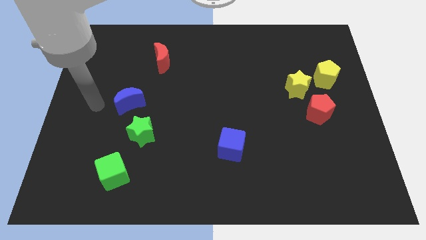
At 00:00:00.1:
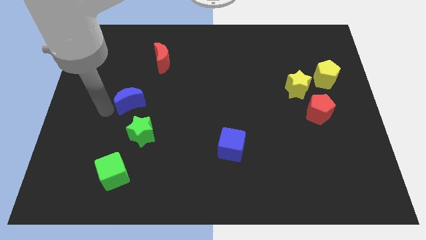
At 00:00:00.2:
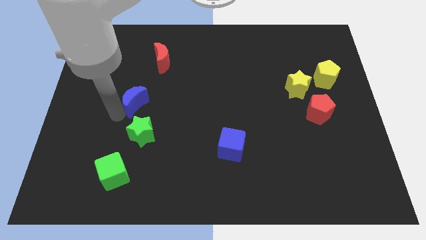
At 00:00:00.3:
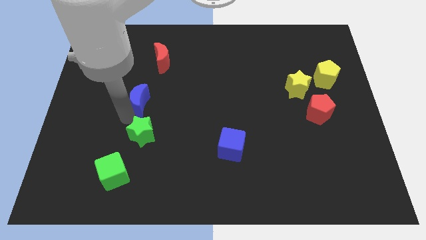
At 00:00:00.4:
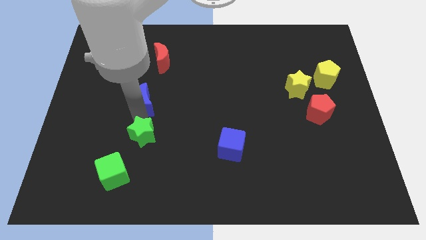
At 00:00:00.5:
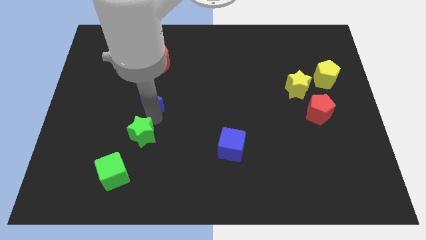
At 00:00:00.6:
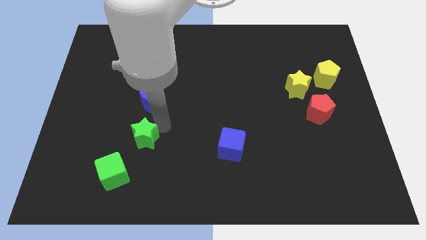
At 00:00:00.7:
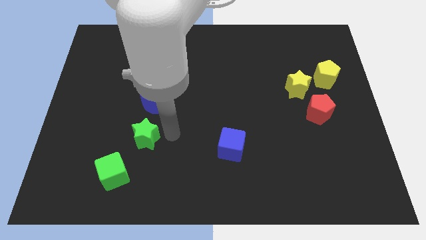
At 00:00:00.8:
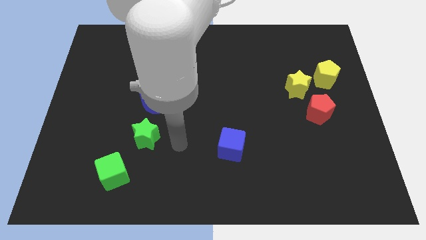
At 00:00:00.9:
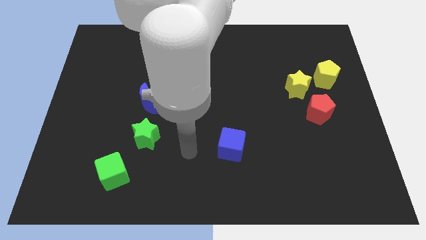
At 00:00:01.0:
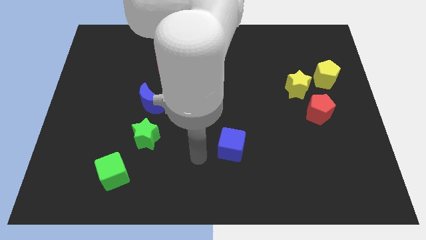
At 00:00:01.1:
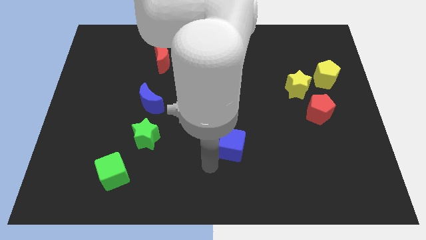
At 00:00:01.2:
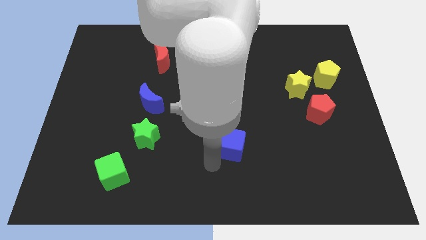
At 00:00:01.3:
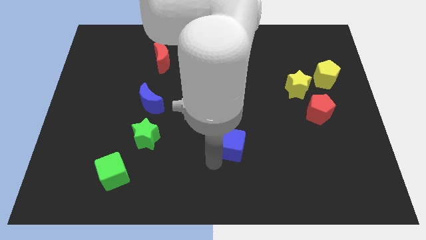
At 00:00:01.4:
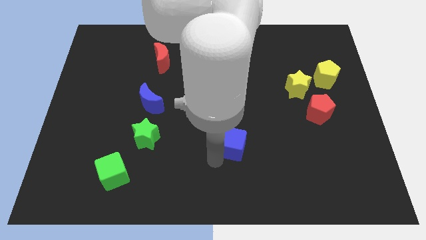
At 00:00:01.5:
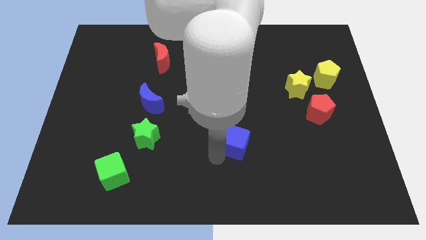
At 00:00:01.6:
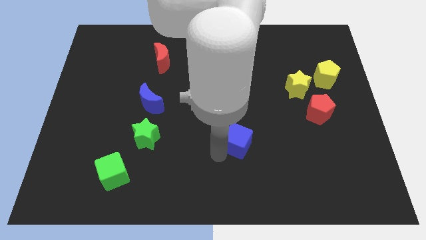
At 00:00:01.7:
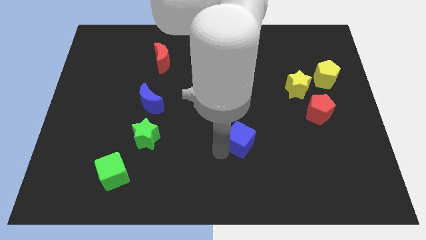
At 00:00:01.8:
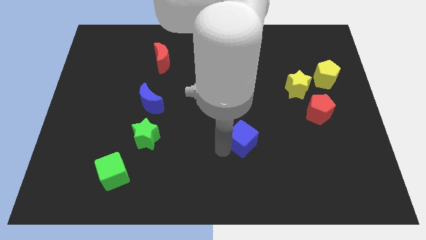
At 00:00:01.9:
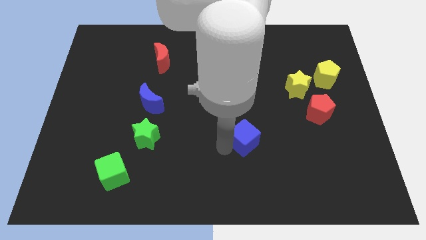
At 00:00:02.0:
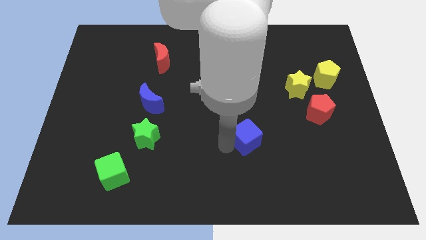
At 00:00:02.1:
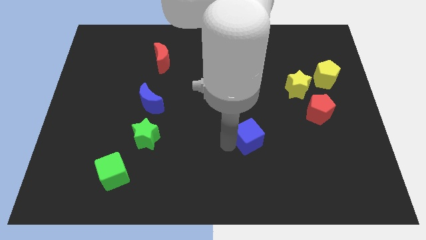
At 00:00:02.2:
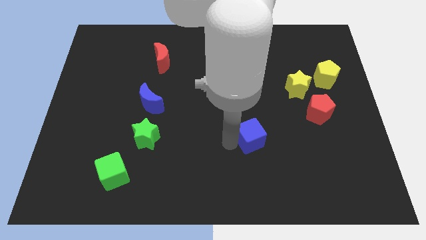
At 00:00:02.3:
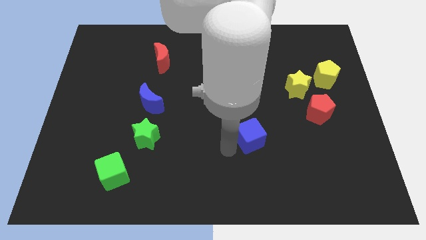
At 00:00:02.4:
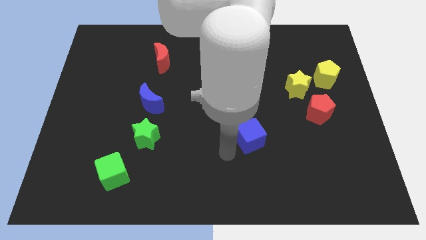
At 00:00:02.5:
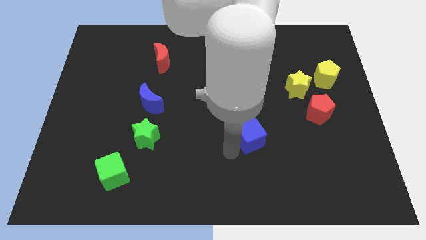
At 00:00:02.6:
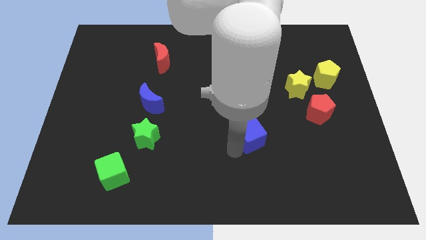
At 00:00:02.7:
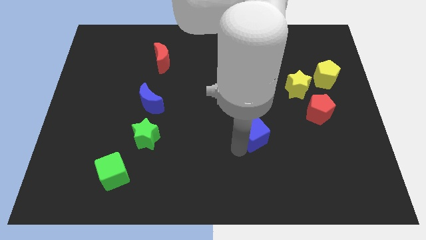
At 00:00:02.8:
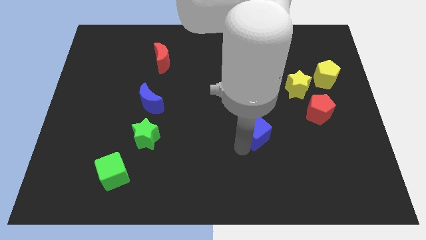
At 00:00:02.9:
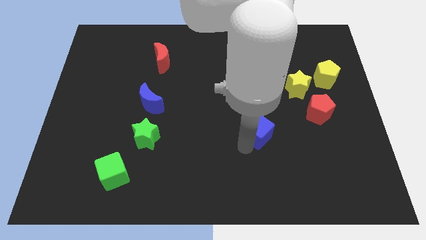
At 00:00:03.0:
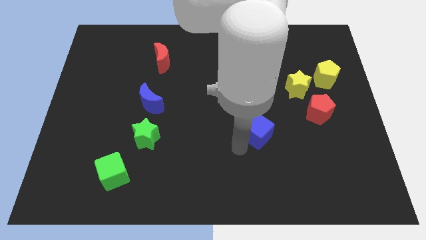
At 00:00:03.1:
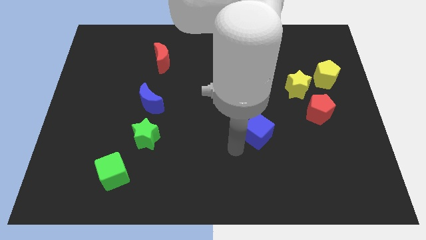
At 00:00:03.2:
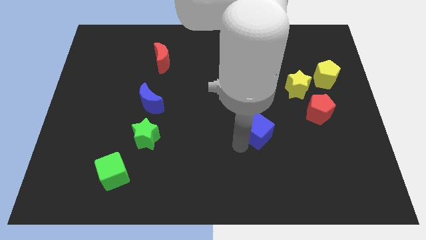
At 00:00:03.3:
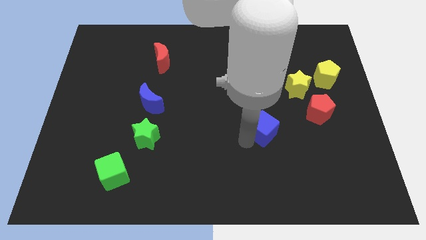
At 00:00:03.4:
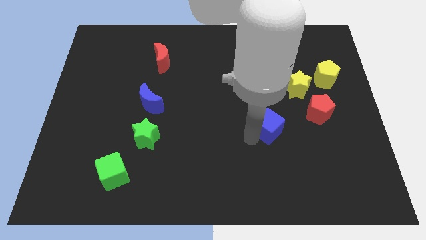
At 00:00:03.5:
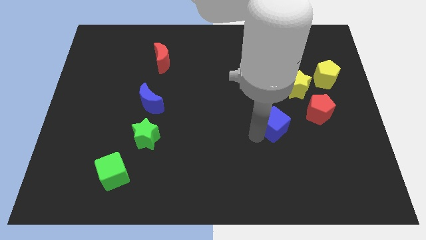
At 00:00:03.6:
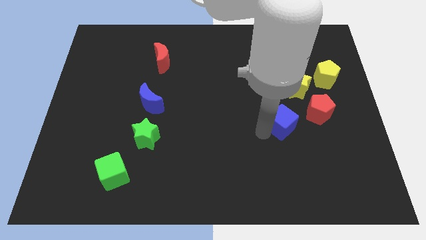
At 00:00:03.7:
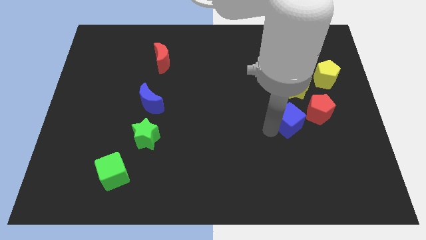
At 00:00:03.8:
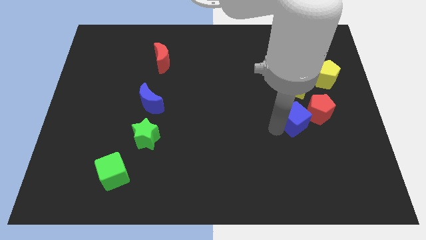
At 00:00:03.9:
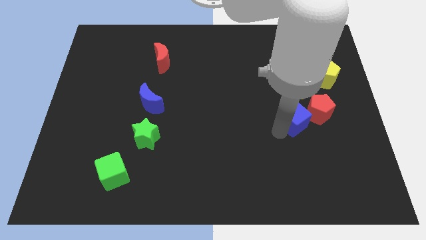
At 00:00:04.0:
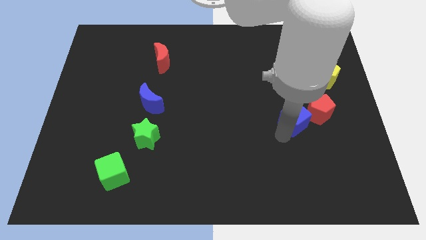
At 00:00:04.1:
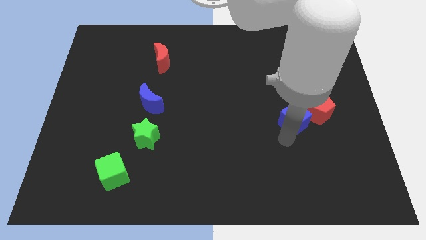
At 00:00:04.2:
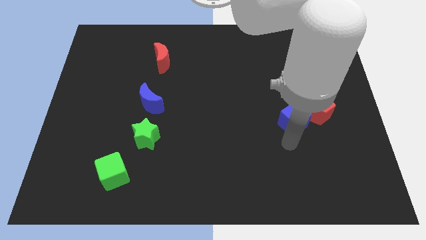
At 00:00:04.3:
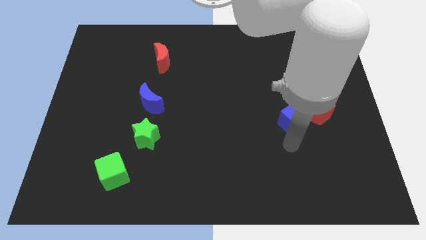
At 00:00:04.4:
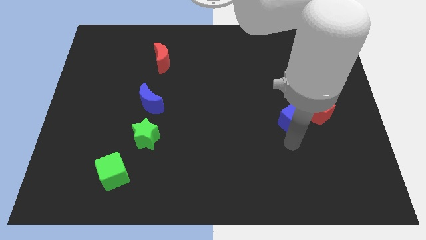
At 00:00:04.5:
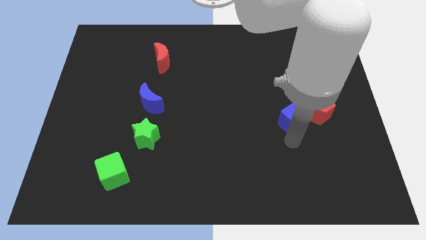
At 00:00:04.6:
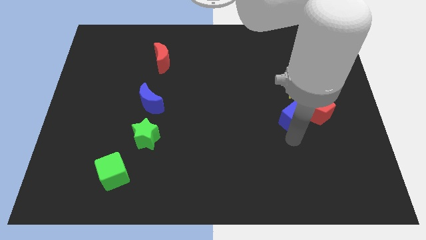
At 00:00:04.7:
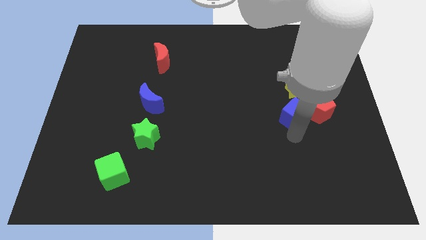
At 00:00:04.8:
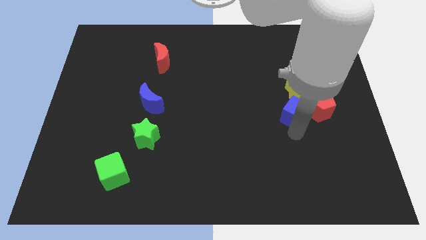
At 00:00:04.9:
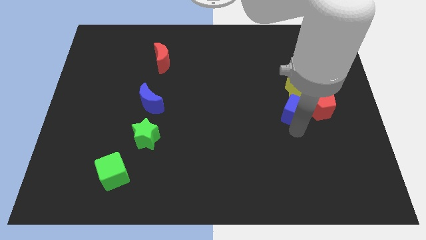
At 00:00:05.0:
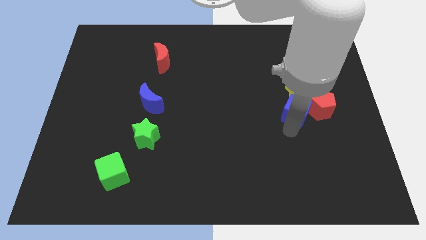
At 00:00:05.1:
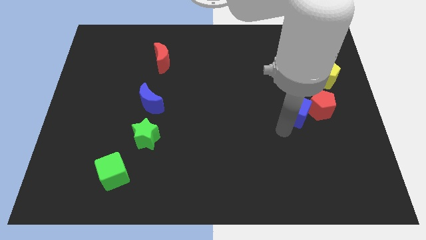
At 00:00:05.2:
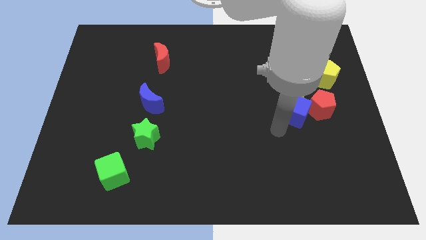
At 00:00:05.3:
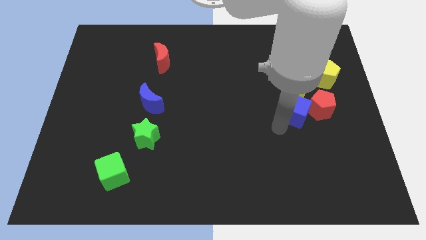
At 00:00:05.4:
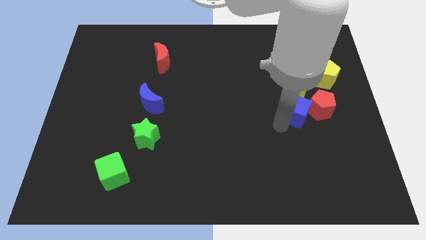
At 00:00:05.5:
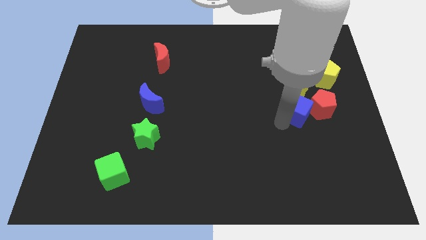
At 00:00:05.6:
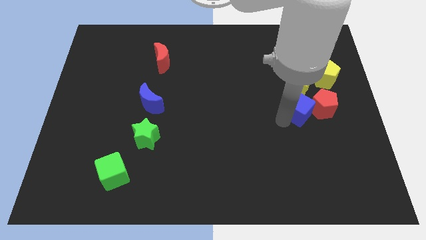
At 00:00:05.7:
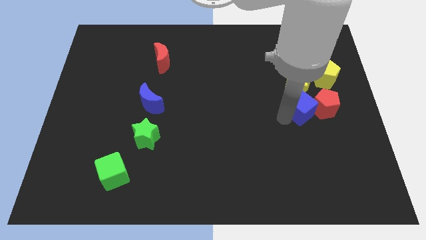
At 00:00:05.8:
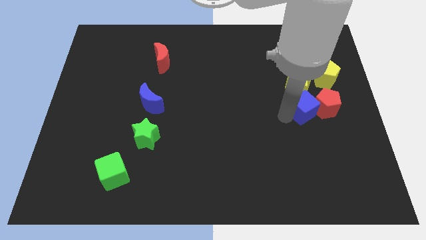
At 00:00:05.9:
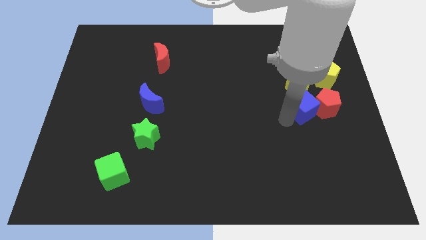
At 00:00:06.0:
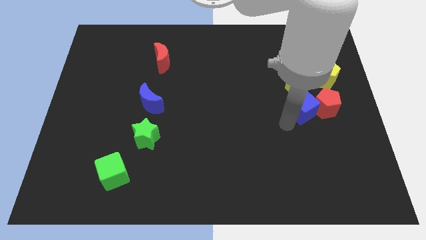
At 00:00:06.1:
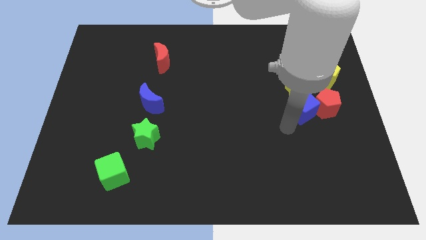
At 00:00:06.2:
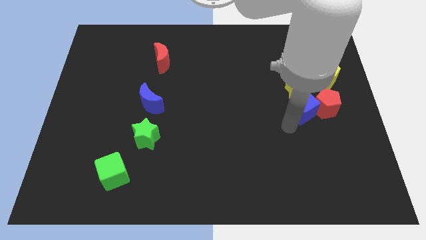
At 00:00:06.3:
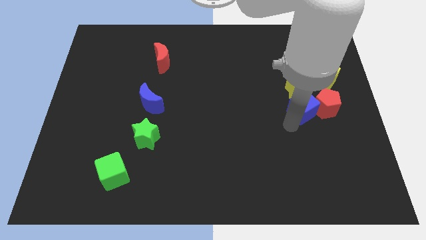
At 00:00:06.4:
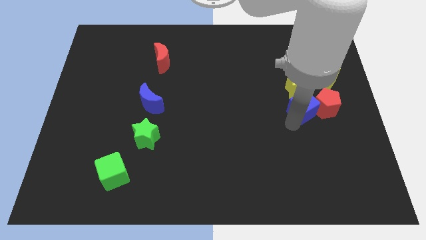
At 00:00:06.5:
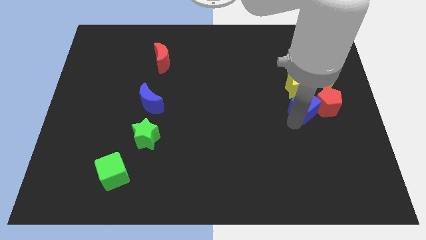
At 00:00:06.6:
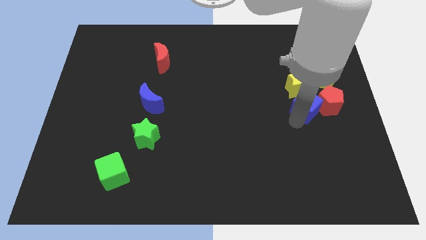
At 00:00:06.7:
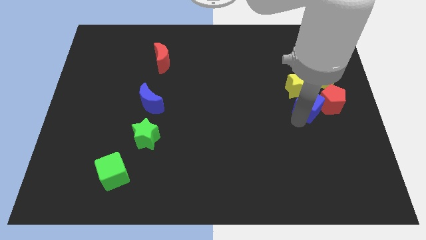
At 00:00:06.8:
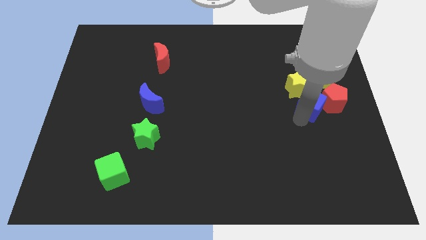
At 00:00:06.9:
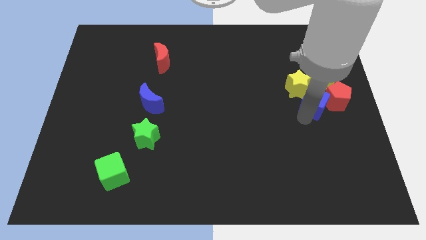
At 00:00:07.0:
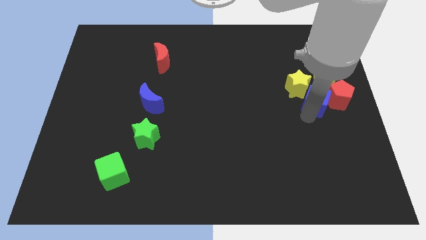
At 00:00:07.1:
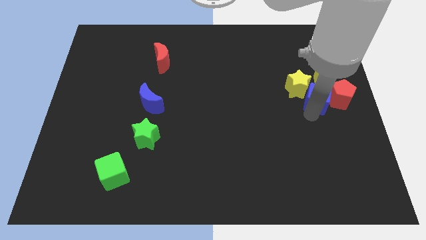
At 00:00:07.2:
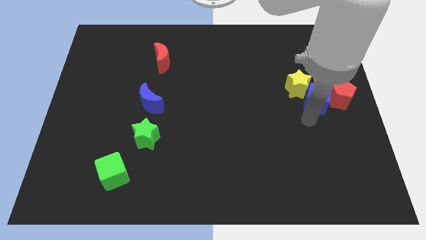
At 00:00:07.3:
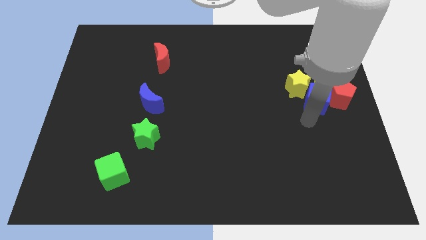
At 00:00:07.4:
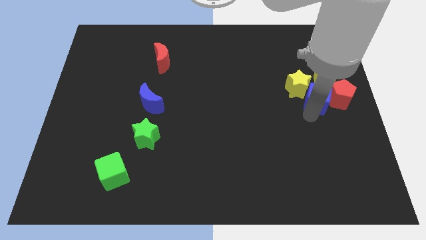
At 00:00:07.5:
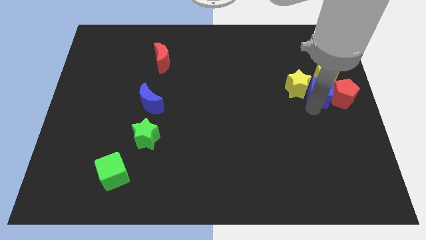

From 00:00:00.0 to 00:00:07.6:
push the blue cube next to the yellow pentagon
